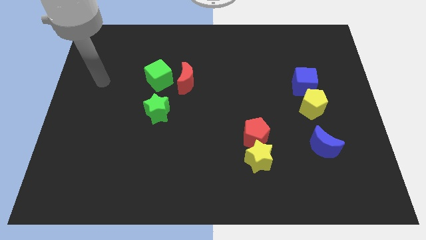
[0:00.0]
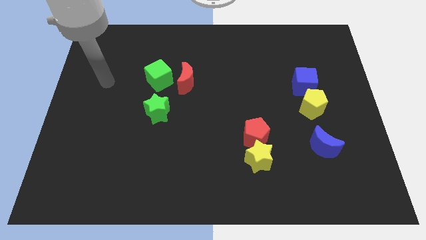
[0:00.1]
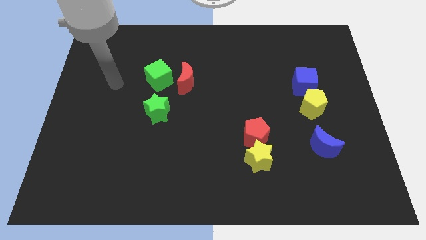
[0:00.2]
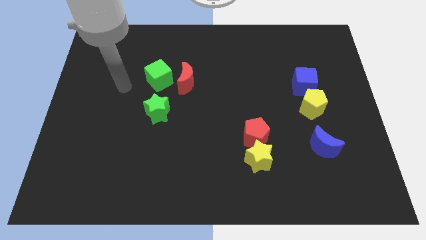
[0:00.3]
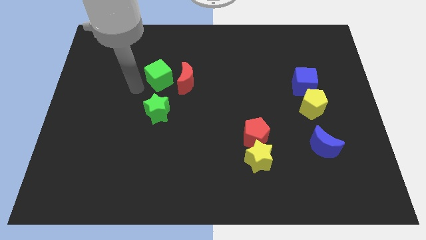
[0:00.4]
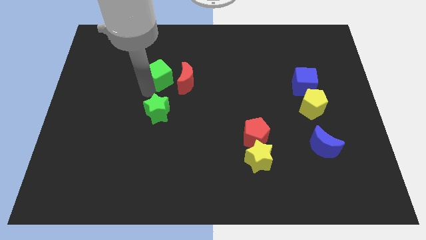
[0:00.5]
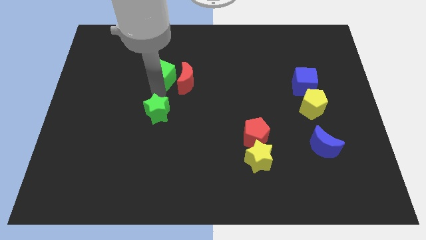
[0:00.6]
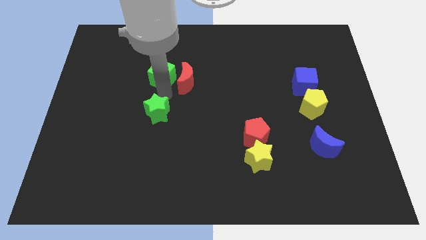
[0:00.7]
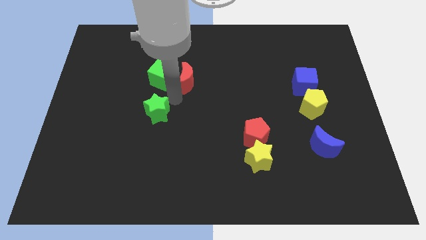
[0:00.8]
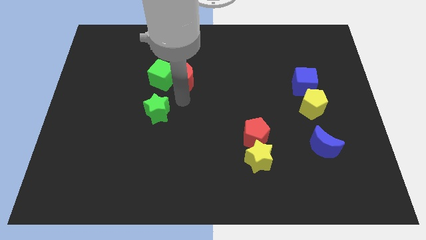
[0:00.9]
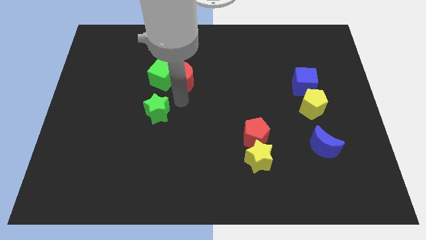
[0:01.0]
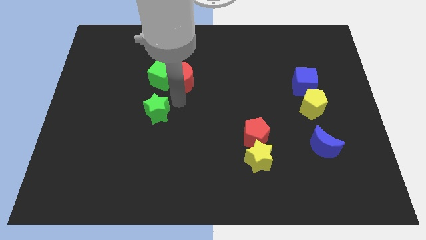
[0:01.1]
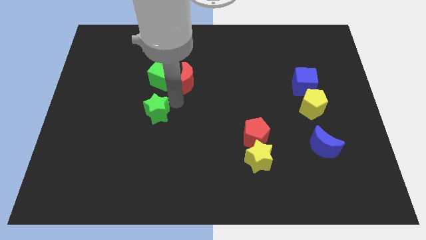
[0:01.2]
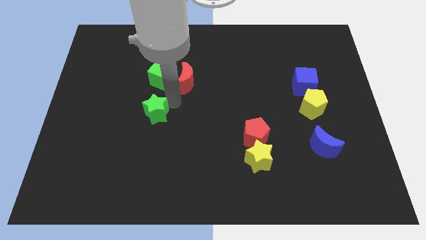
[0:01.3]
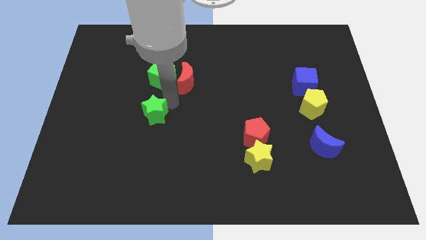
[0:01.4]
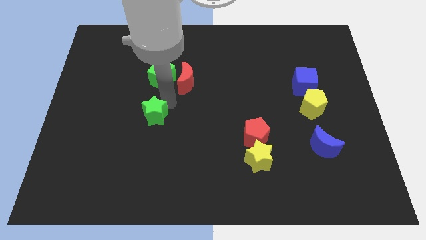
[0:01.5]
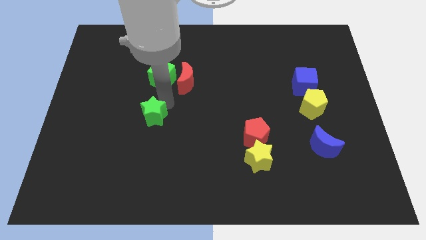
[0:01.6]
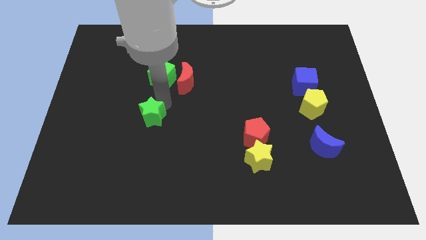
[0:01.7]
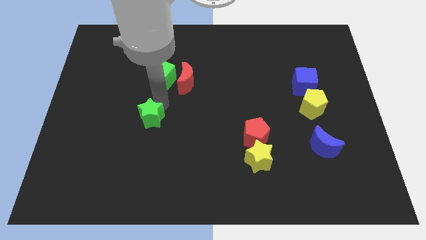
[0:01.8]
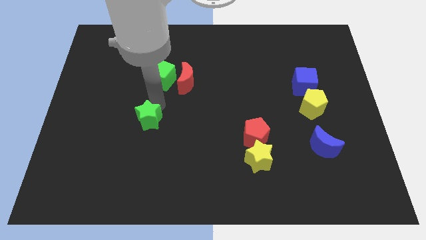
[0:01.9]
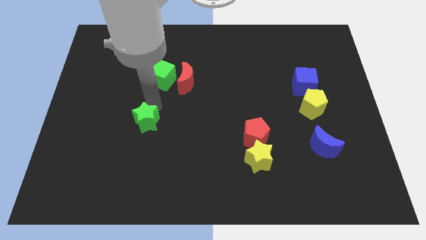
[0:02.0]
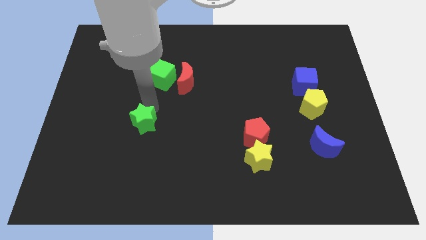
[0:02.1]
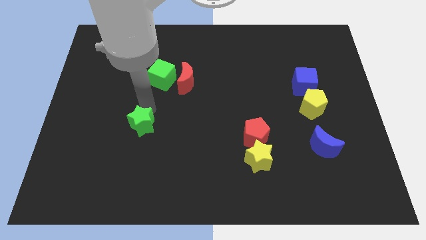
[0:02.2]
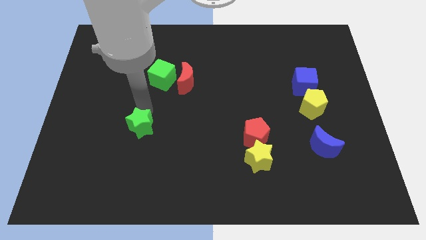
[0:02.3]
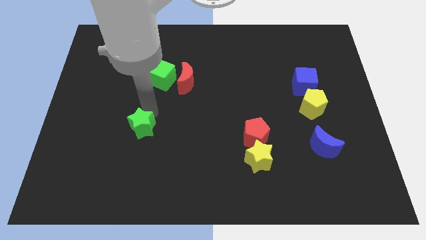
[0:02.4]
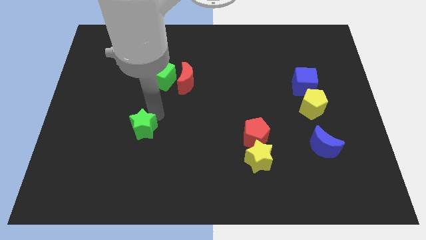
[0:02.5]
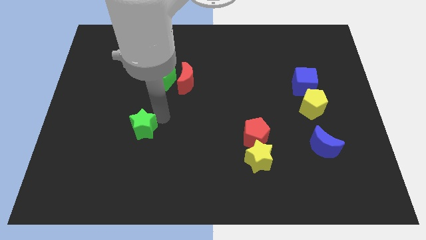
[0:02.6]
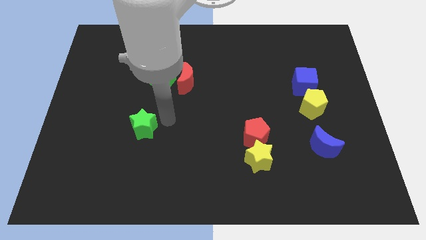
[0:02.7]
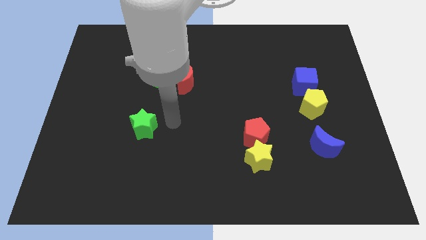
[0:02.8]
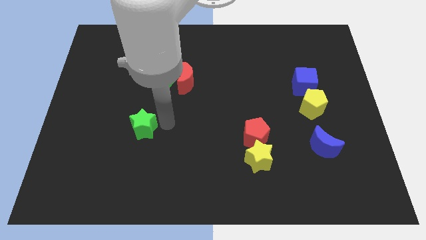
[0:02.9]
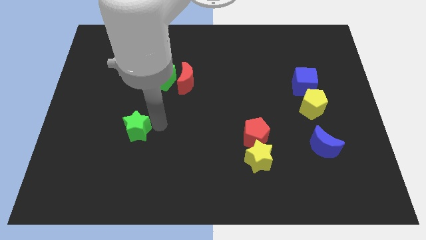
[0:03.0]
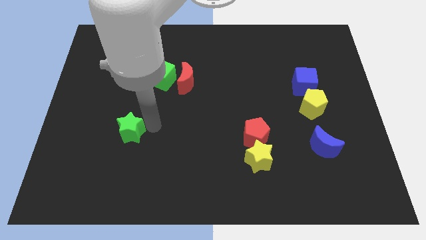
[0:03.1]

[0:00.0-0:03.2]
slightly push the green star down and to the left diagonally

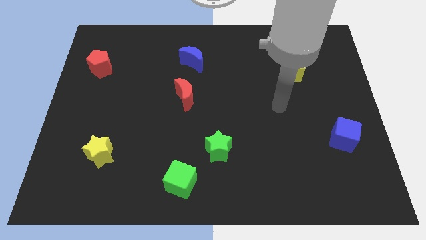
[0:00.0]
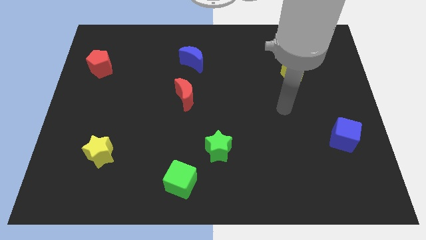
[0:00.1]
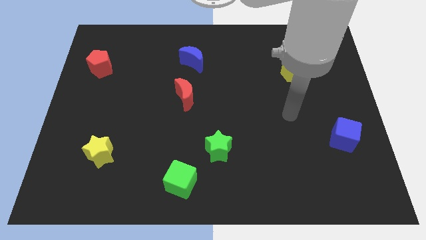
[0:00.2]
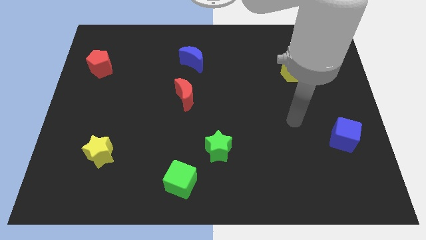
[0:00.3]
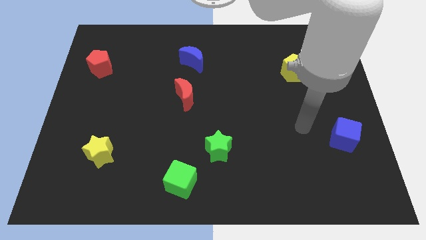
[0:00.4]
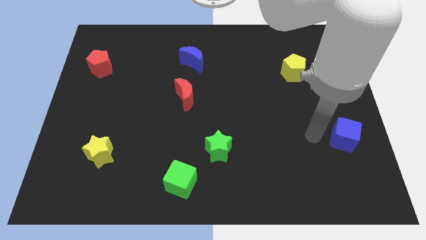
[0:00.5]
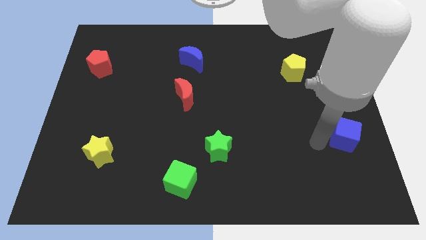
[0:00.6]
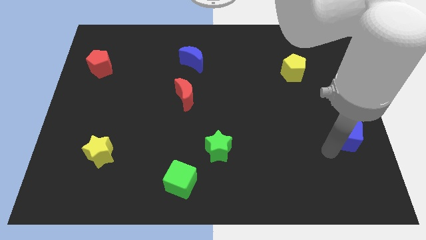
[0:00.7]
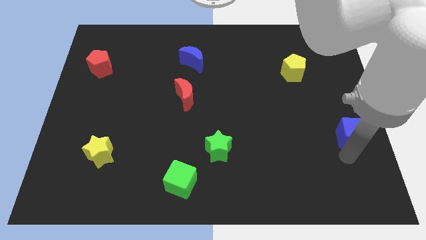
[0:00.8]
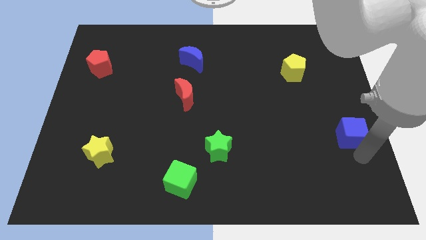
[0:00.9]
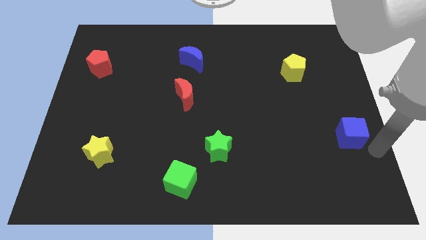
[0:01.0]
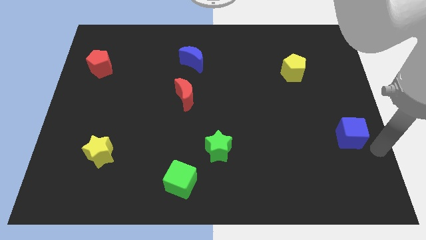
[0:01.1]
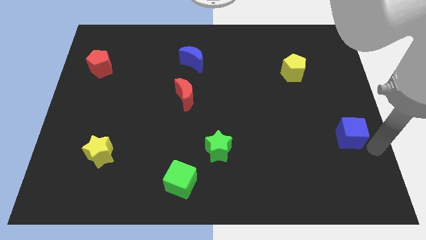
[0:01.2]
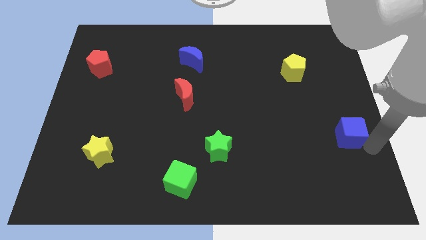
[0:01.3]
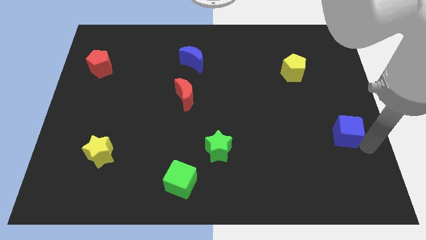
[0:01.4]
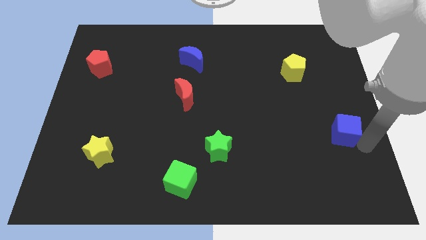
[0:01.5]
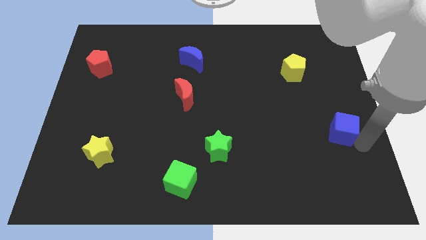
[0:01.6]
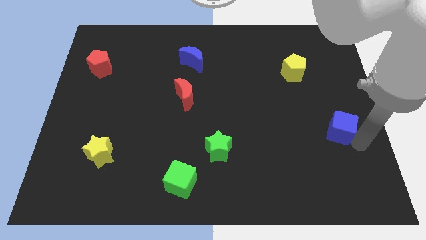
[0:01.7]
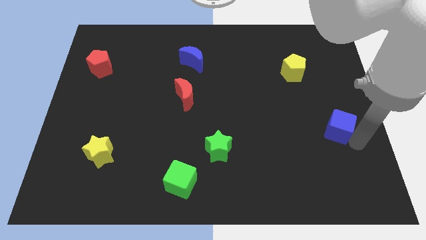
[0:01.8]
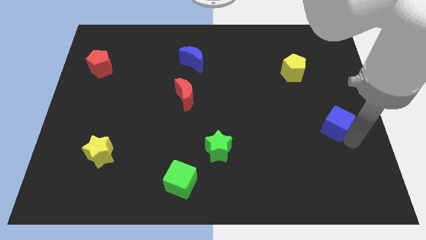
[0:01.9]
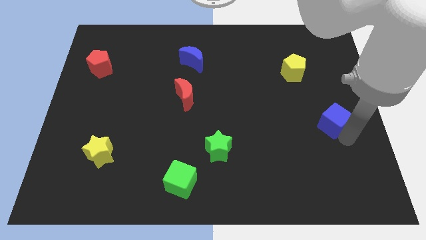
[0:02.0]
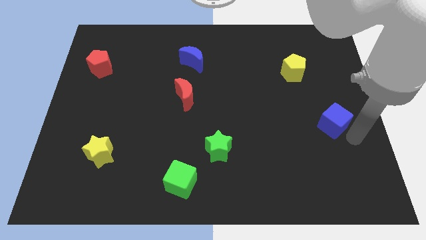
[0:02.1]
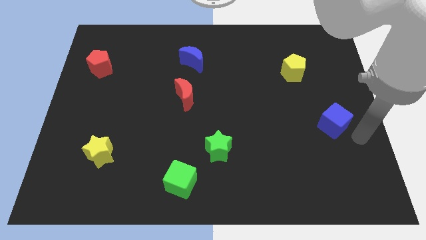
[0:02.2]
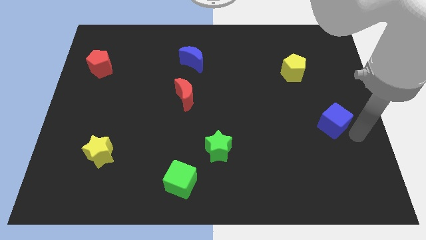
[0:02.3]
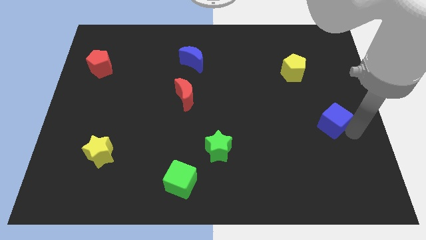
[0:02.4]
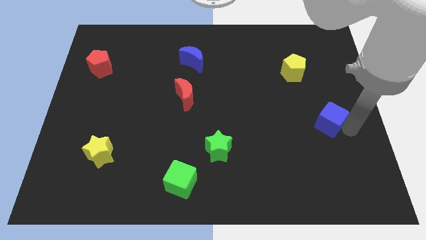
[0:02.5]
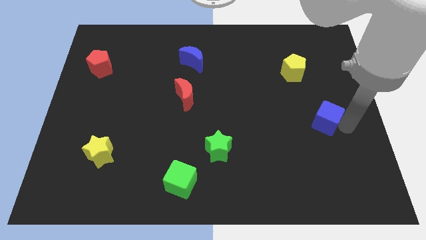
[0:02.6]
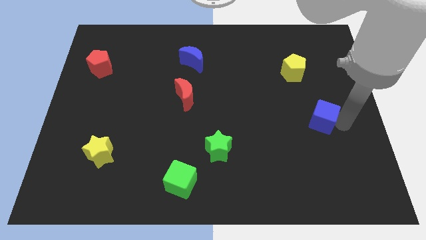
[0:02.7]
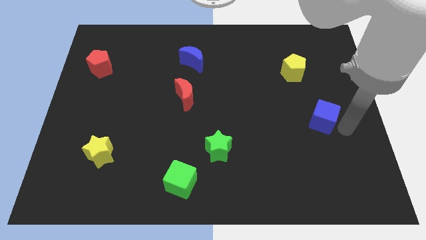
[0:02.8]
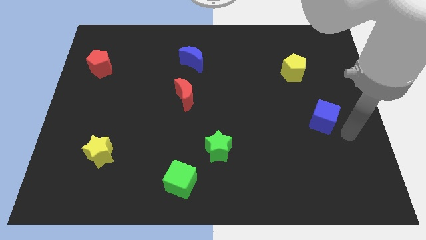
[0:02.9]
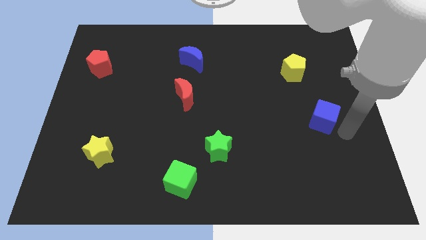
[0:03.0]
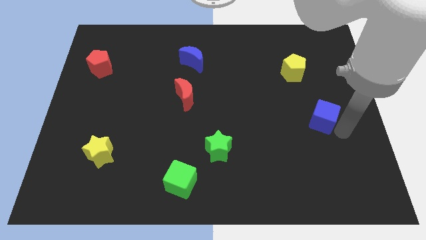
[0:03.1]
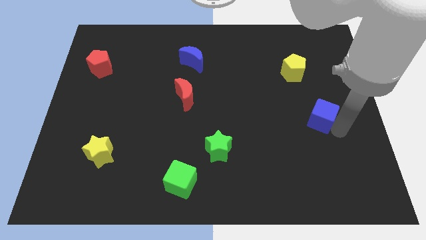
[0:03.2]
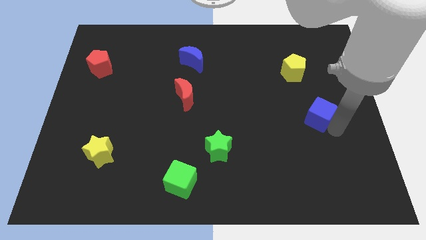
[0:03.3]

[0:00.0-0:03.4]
move the blue cube slightly upwards and then left

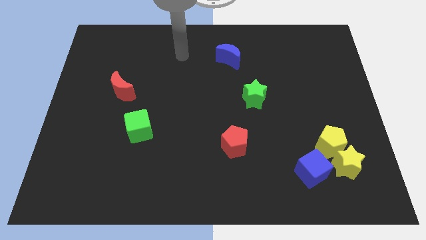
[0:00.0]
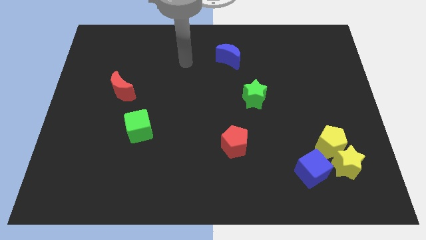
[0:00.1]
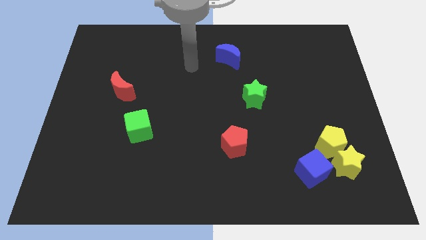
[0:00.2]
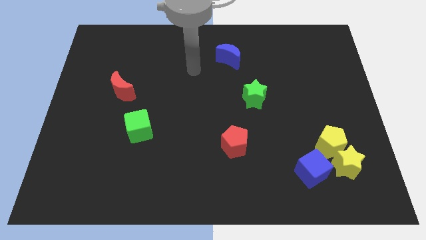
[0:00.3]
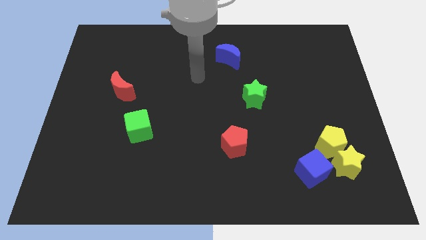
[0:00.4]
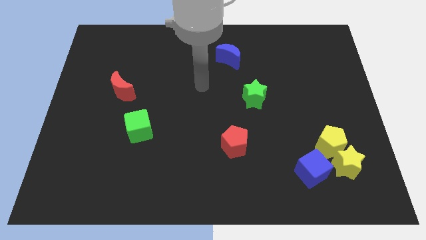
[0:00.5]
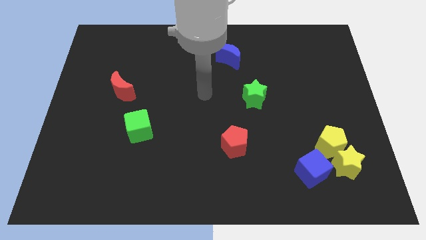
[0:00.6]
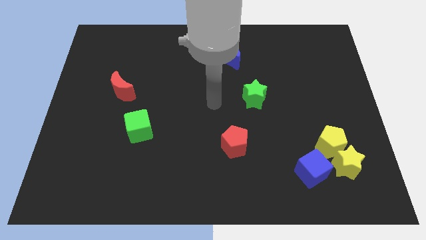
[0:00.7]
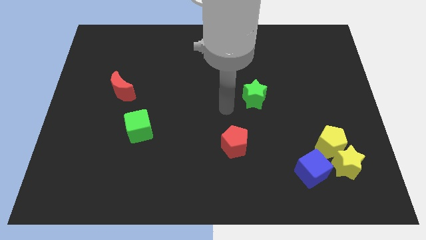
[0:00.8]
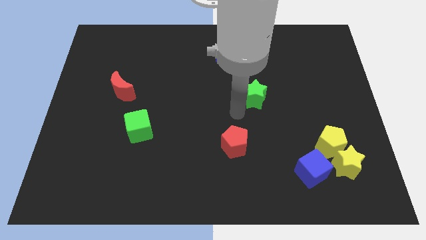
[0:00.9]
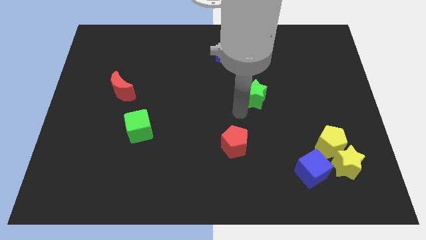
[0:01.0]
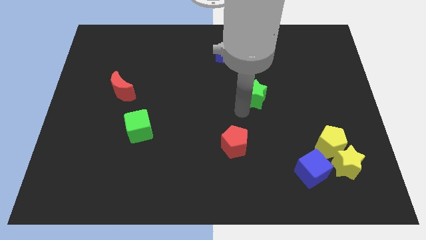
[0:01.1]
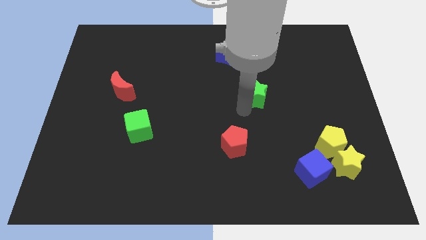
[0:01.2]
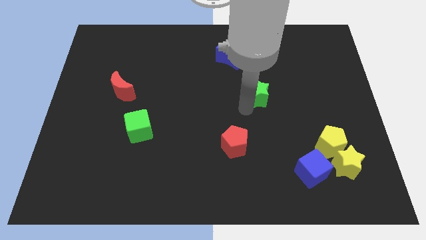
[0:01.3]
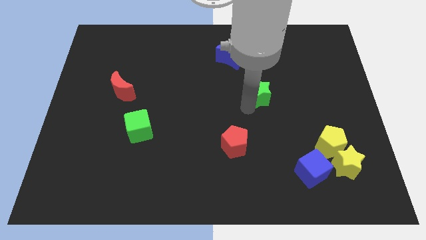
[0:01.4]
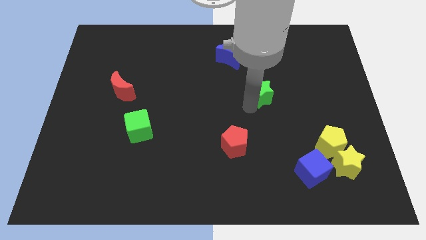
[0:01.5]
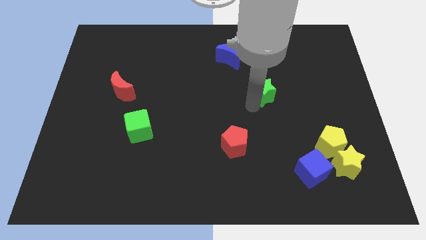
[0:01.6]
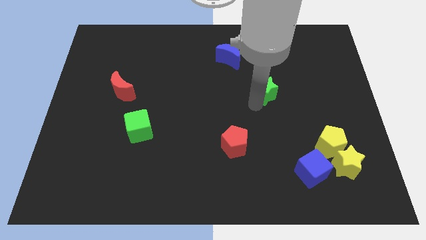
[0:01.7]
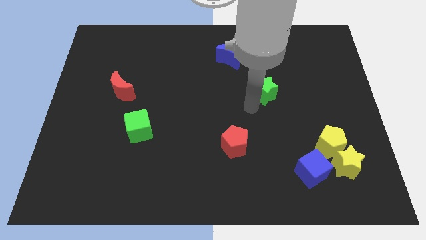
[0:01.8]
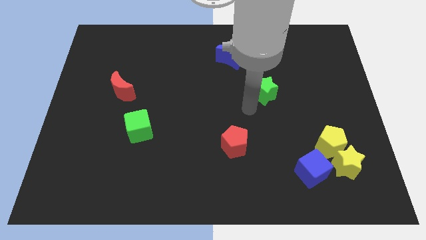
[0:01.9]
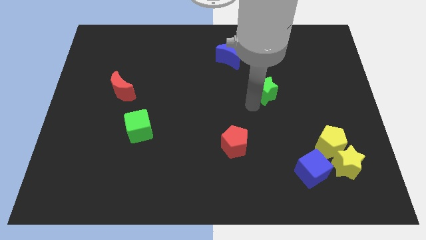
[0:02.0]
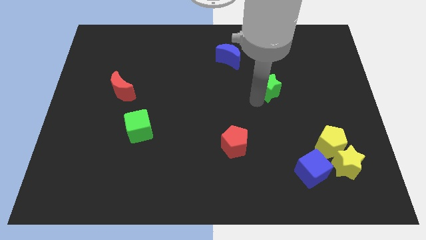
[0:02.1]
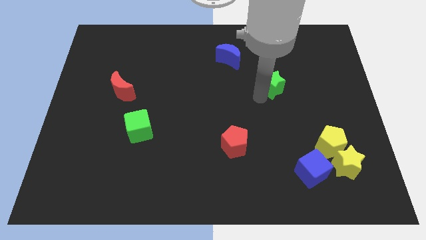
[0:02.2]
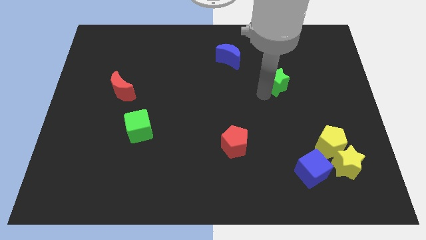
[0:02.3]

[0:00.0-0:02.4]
slightly slide the green star upwards and right
